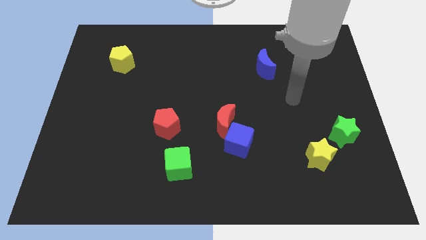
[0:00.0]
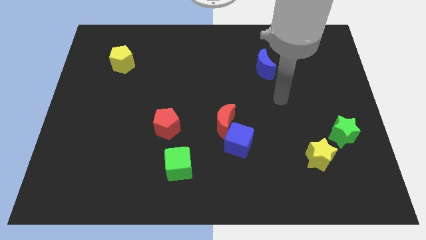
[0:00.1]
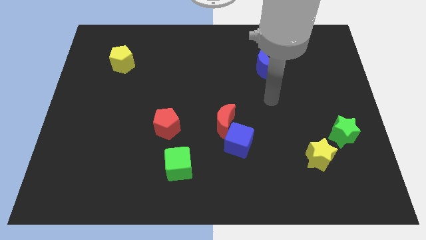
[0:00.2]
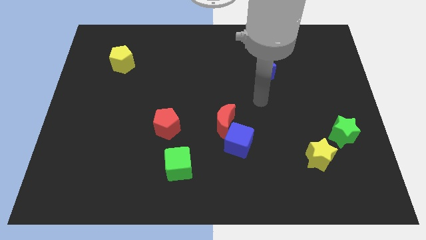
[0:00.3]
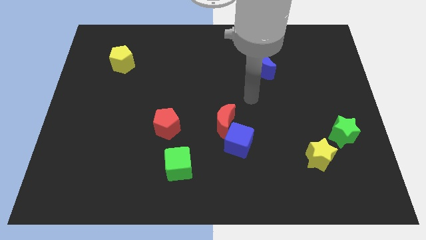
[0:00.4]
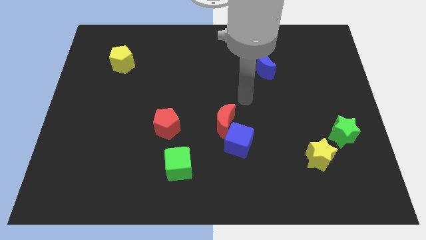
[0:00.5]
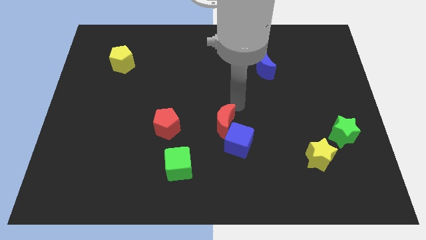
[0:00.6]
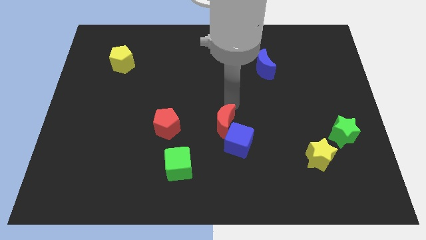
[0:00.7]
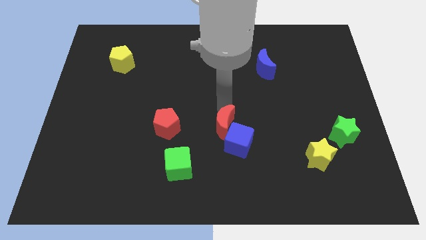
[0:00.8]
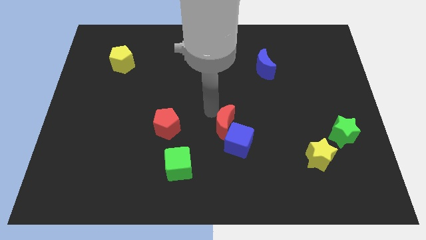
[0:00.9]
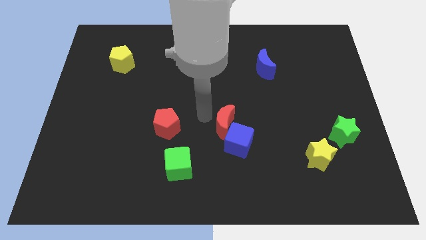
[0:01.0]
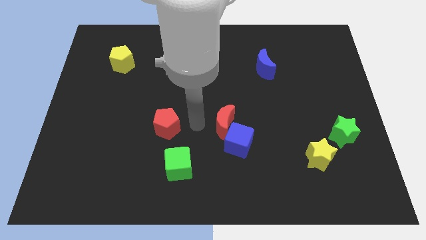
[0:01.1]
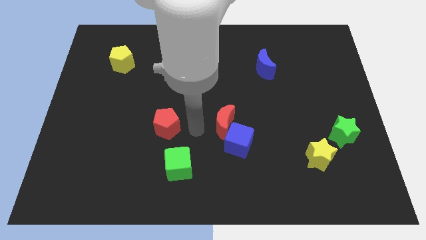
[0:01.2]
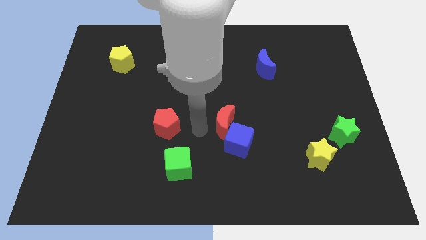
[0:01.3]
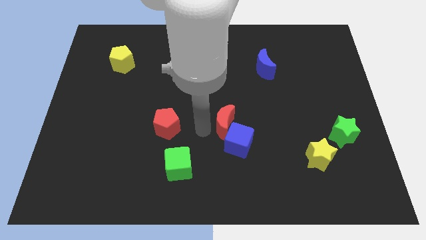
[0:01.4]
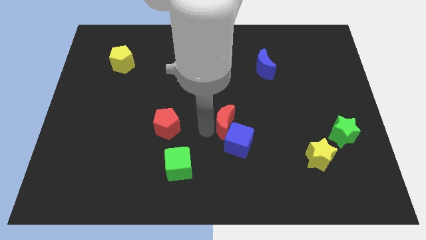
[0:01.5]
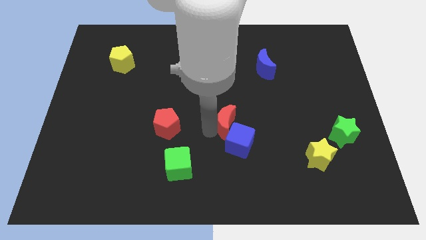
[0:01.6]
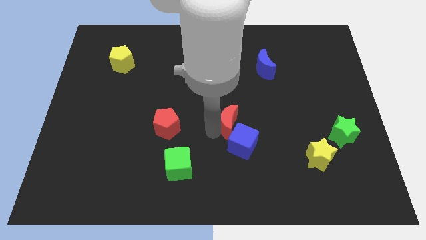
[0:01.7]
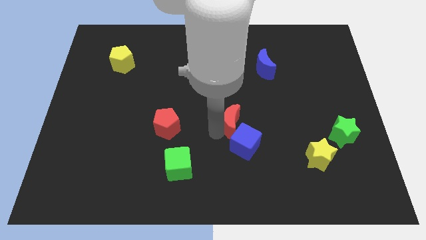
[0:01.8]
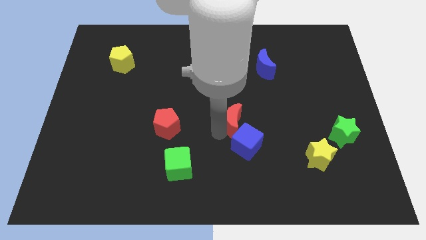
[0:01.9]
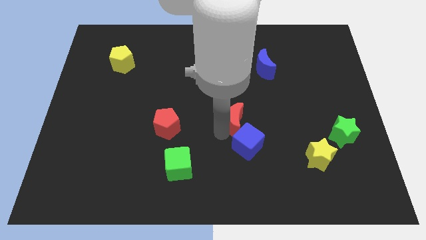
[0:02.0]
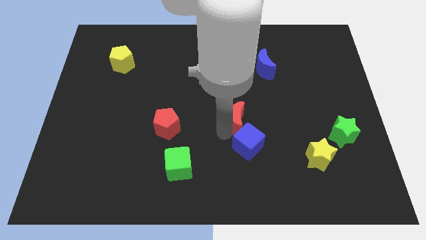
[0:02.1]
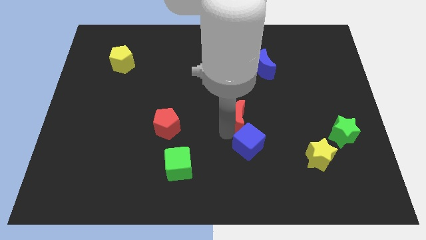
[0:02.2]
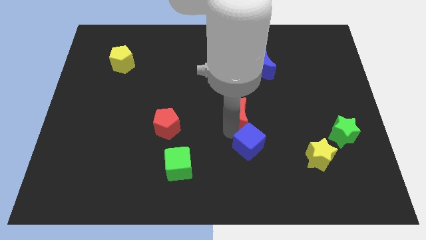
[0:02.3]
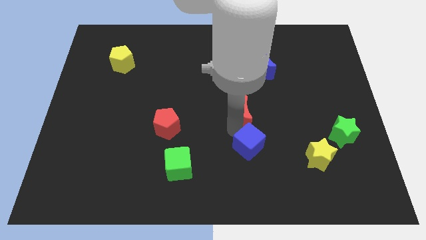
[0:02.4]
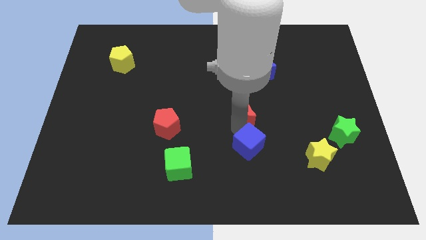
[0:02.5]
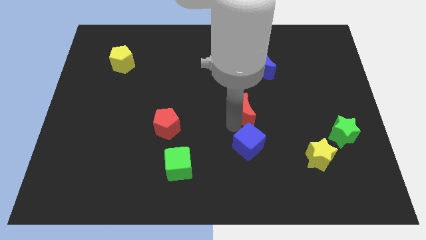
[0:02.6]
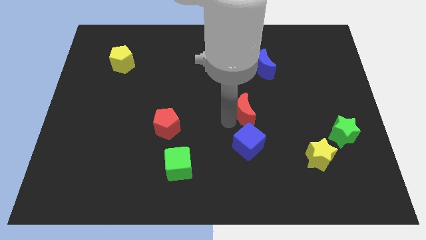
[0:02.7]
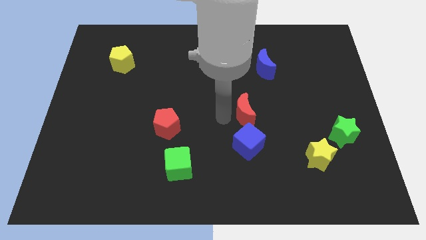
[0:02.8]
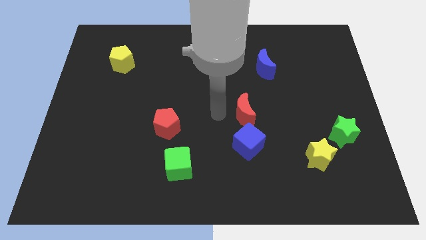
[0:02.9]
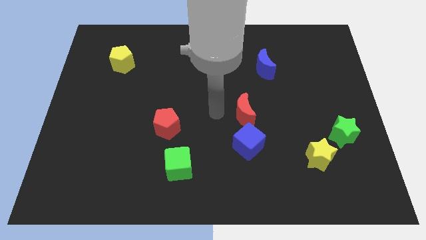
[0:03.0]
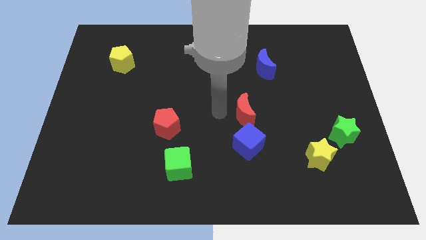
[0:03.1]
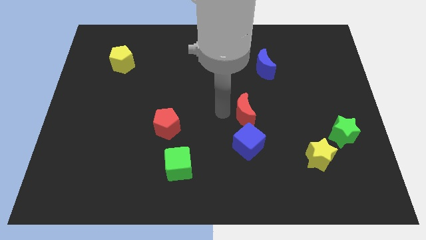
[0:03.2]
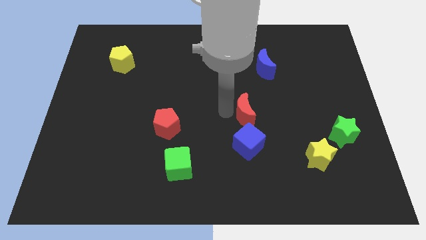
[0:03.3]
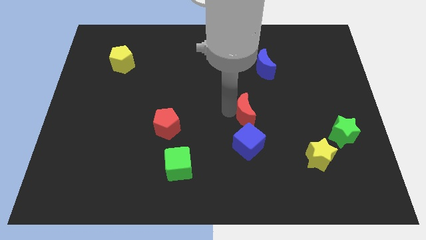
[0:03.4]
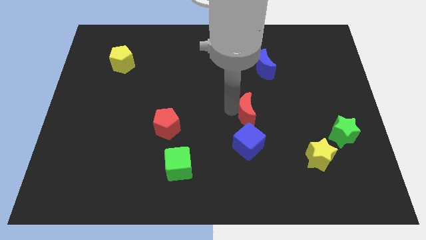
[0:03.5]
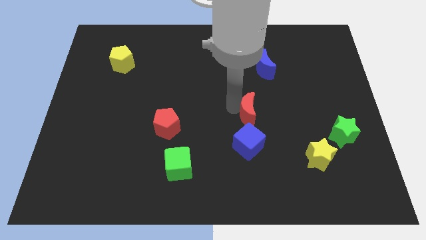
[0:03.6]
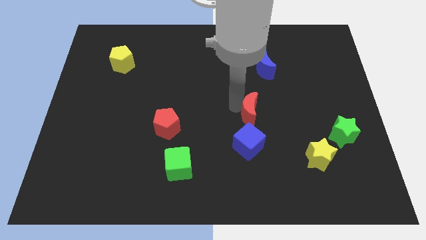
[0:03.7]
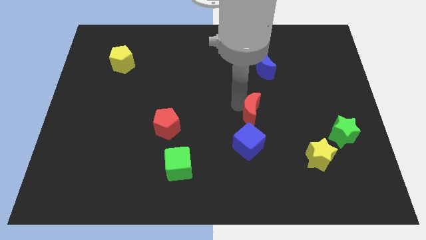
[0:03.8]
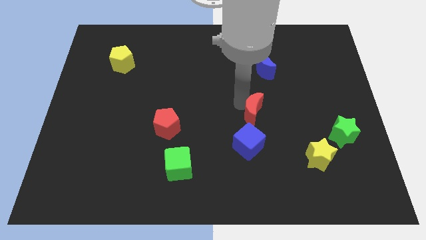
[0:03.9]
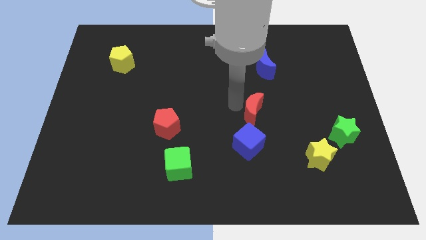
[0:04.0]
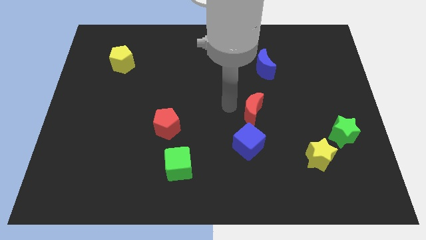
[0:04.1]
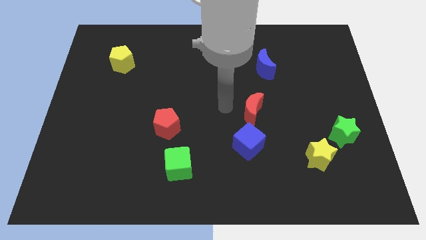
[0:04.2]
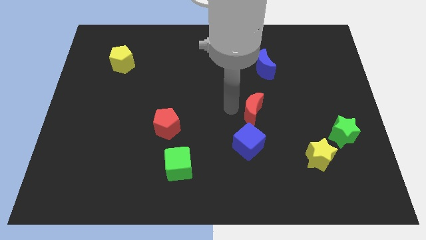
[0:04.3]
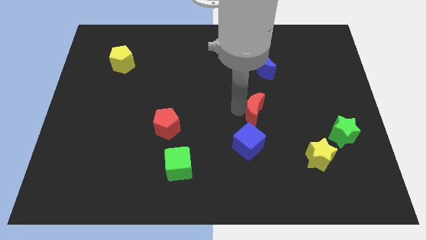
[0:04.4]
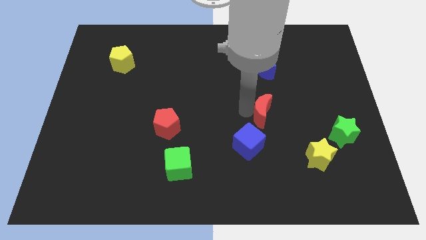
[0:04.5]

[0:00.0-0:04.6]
push the red moon somewhat right

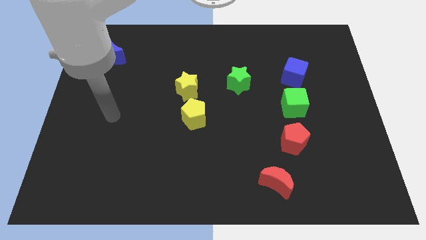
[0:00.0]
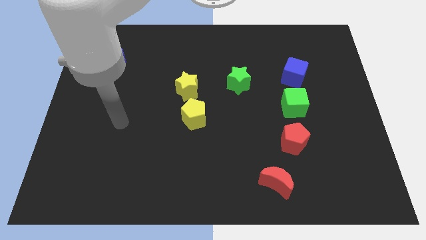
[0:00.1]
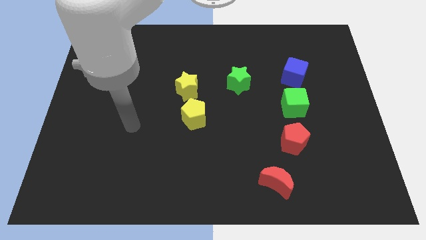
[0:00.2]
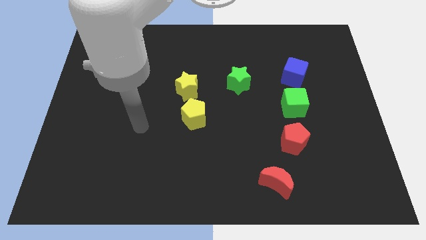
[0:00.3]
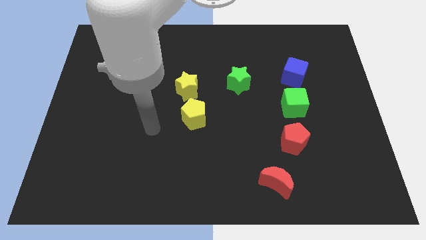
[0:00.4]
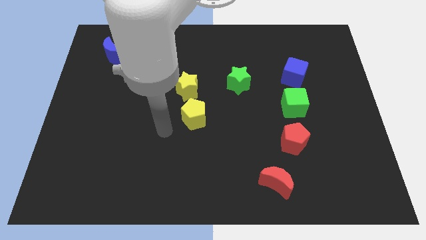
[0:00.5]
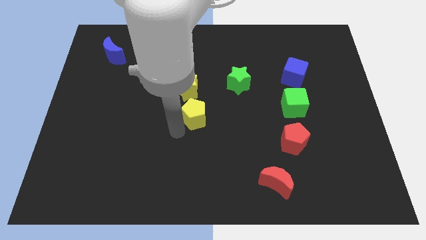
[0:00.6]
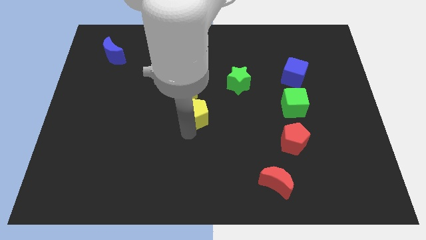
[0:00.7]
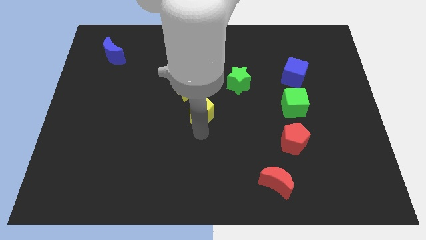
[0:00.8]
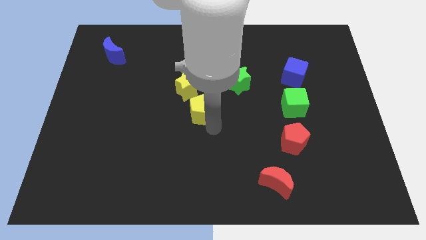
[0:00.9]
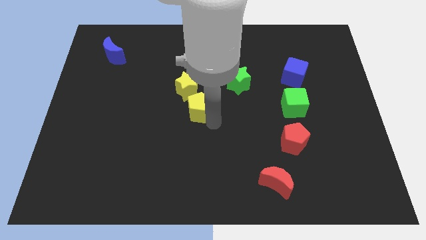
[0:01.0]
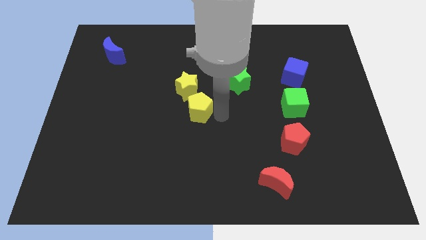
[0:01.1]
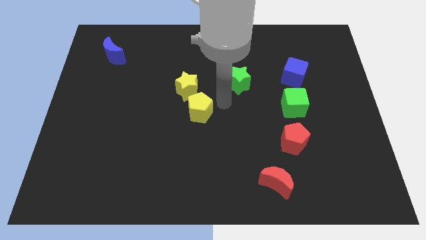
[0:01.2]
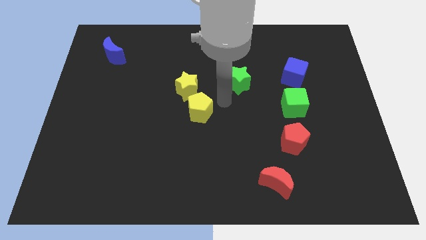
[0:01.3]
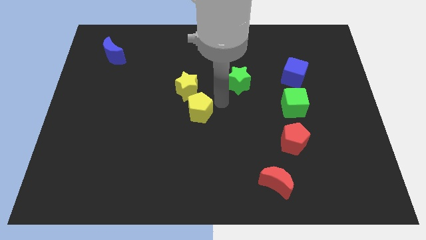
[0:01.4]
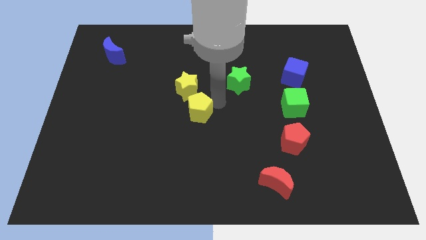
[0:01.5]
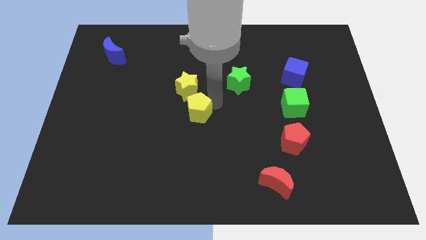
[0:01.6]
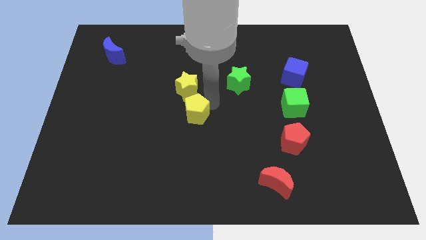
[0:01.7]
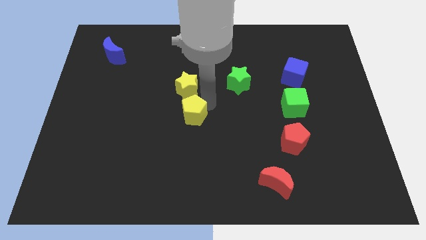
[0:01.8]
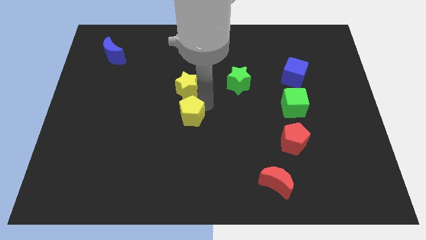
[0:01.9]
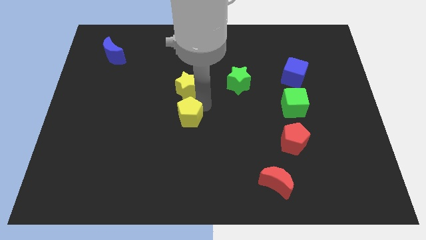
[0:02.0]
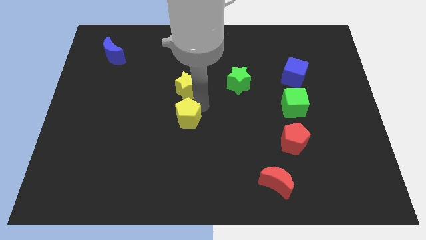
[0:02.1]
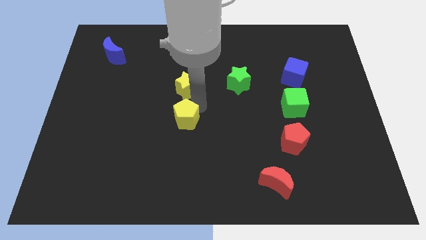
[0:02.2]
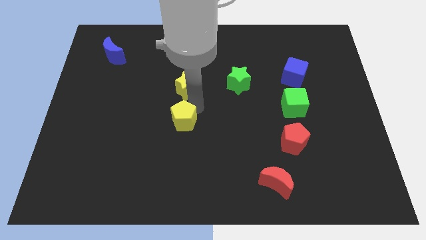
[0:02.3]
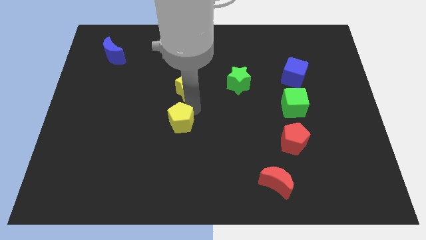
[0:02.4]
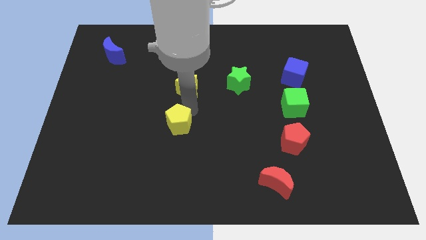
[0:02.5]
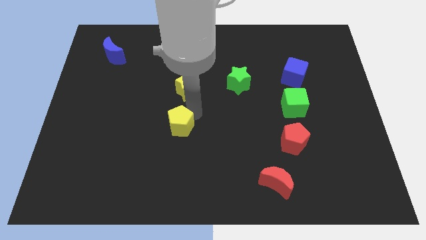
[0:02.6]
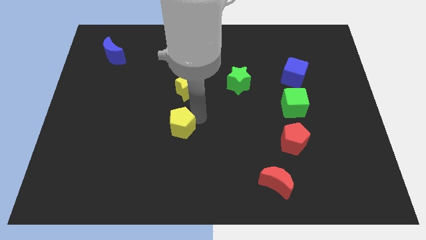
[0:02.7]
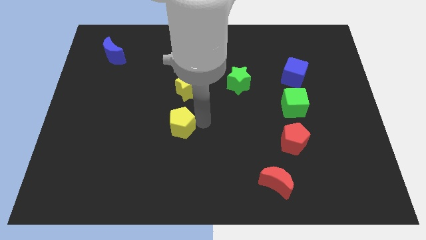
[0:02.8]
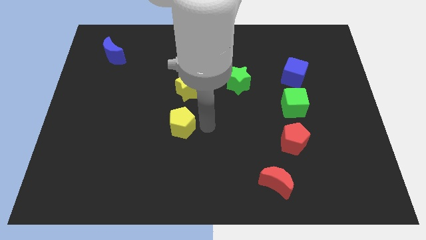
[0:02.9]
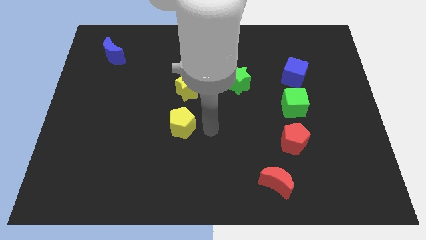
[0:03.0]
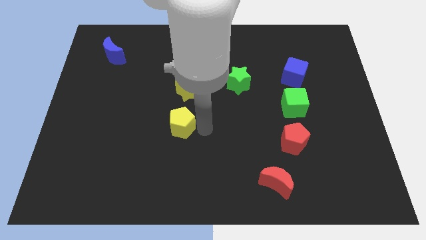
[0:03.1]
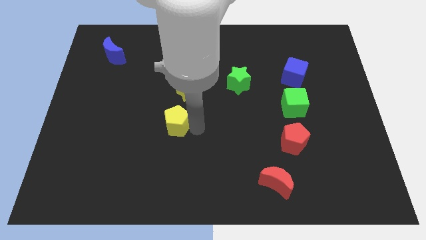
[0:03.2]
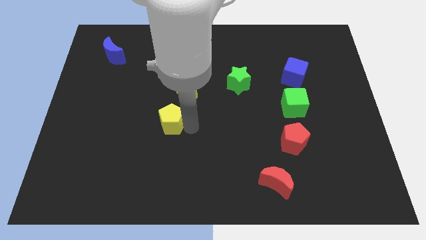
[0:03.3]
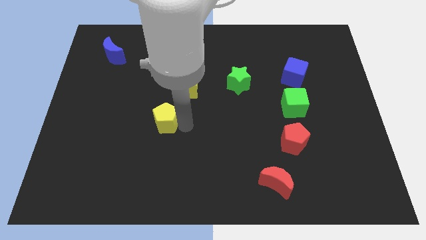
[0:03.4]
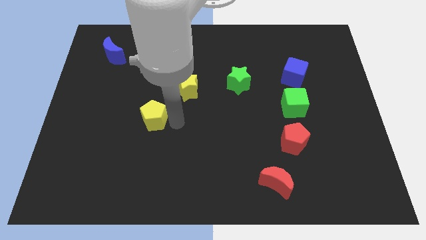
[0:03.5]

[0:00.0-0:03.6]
push the yellow pentagon a bit left
